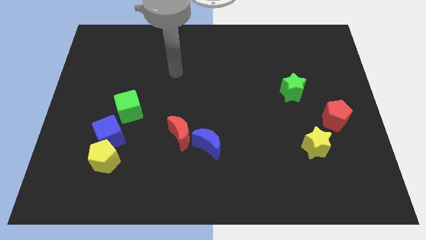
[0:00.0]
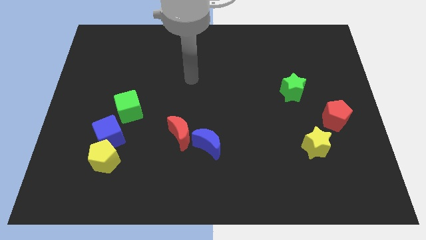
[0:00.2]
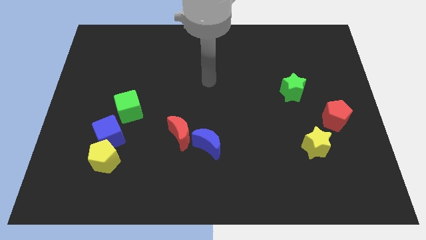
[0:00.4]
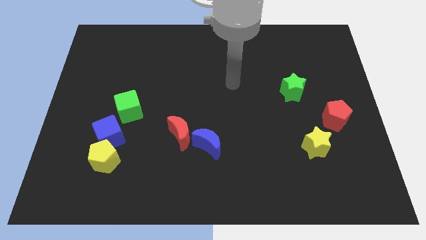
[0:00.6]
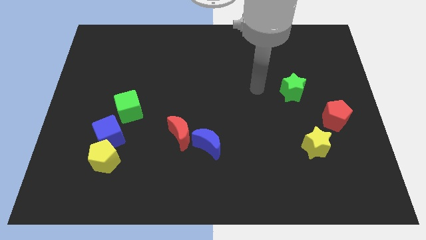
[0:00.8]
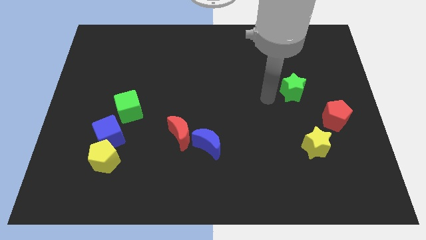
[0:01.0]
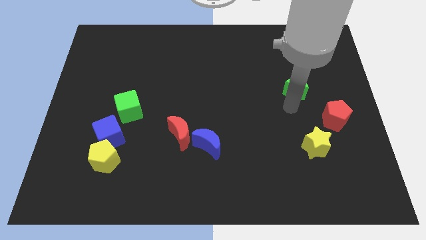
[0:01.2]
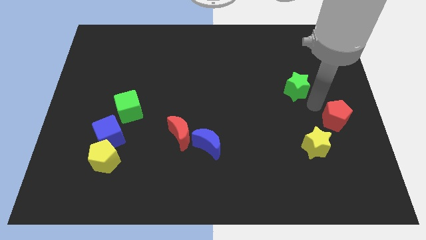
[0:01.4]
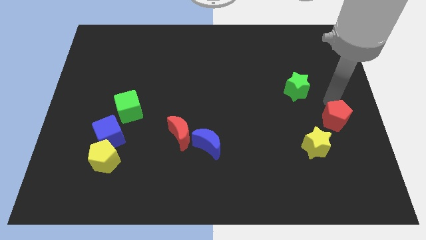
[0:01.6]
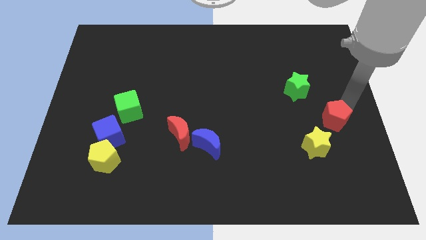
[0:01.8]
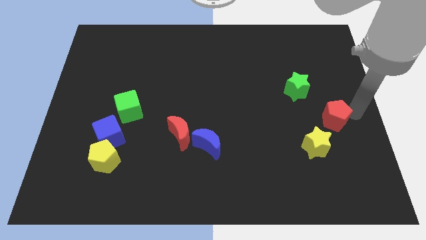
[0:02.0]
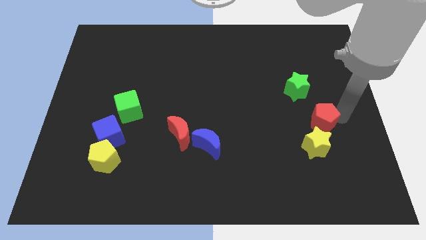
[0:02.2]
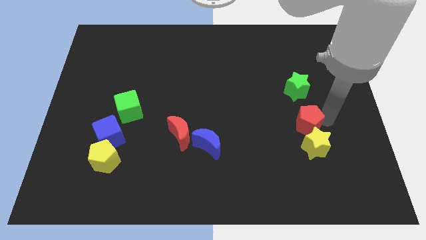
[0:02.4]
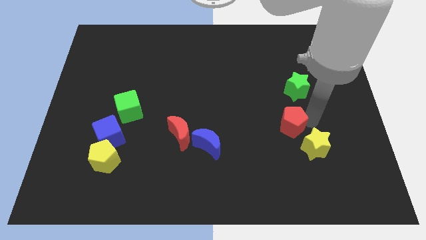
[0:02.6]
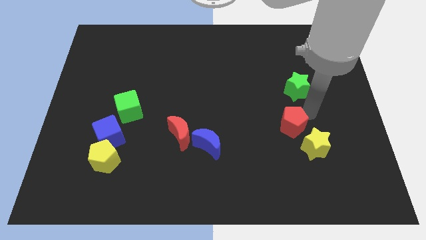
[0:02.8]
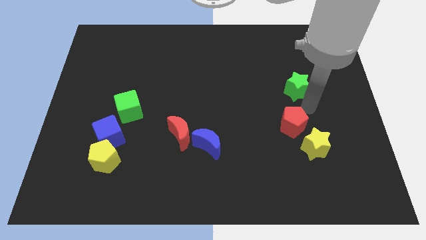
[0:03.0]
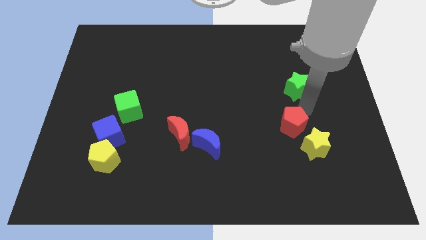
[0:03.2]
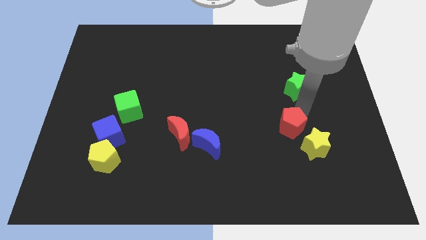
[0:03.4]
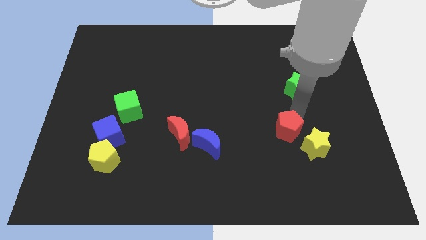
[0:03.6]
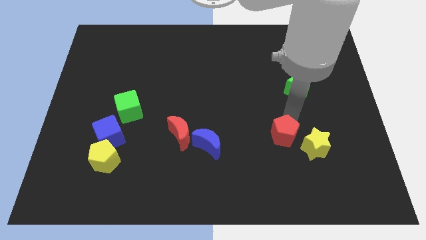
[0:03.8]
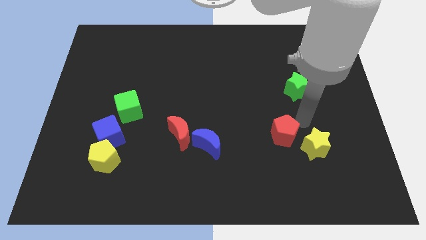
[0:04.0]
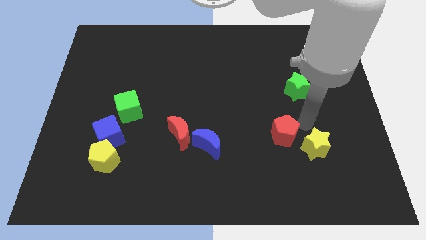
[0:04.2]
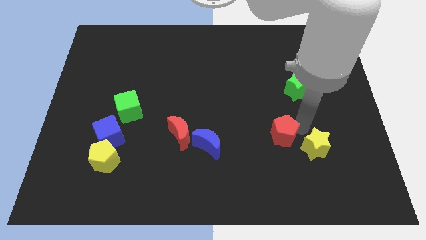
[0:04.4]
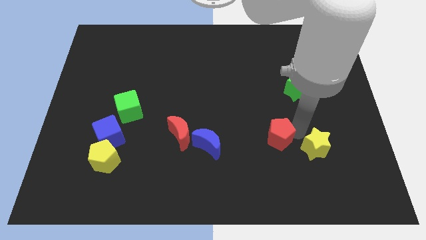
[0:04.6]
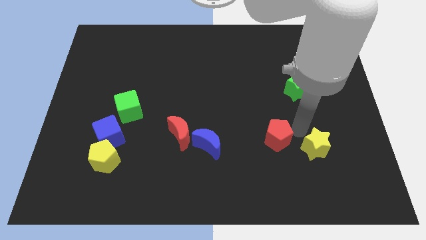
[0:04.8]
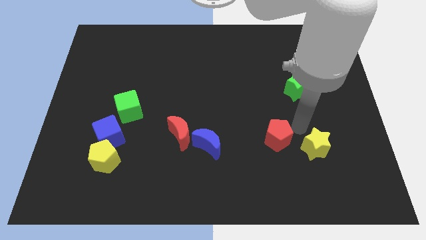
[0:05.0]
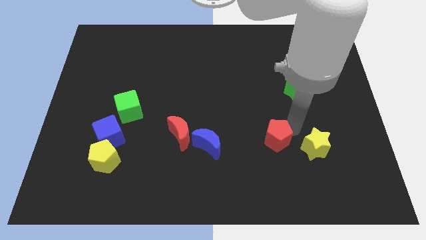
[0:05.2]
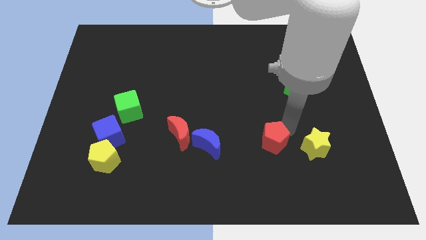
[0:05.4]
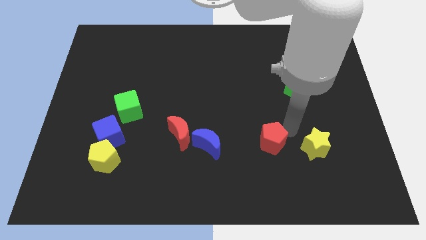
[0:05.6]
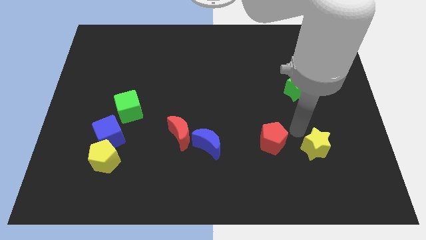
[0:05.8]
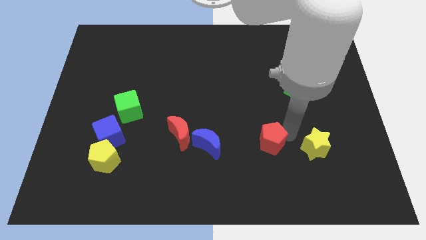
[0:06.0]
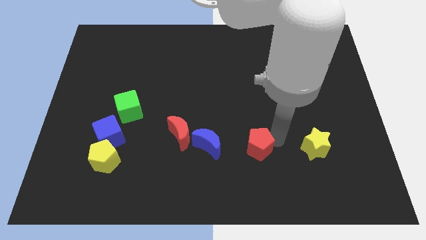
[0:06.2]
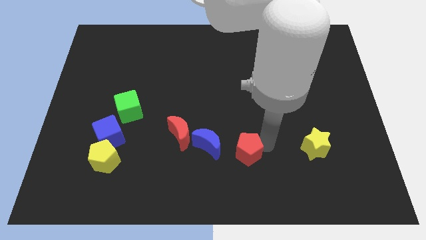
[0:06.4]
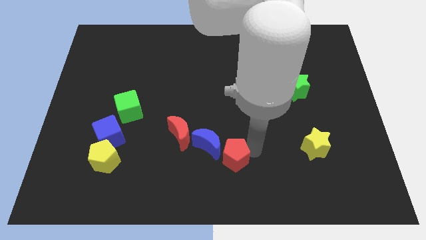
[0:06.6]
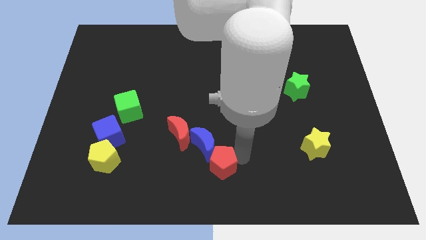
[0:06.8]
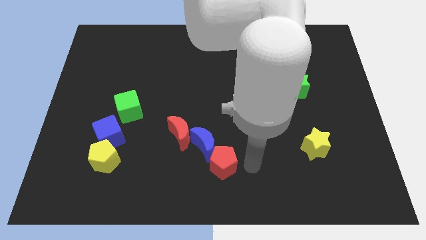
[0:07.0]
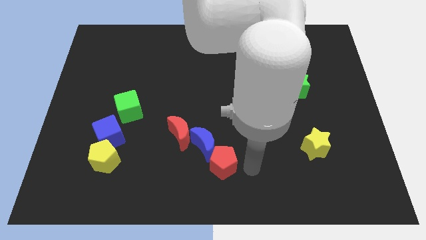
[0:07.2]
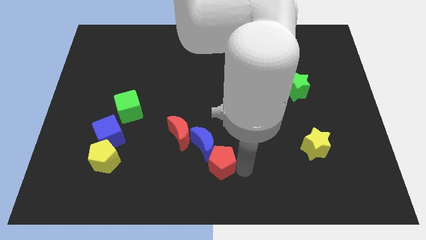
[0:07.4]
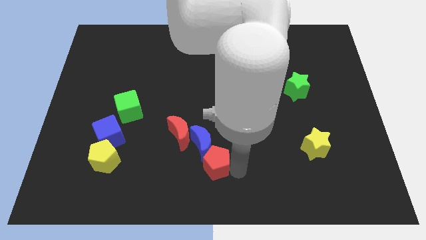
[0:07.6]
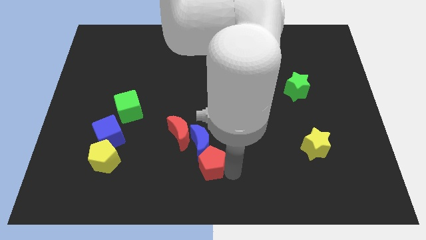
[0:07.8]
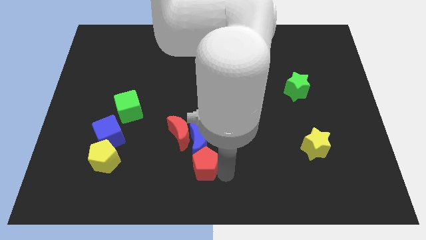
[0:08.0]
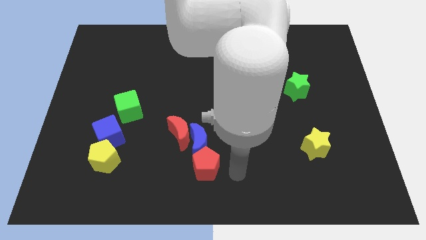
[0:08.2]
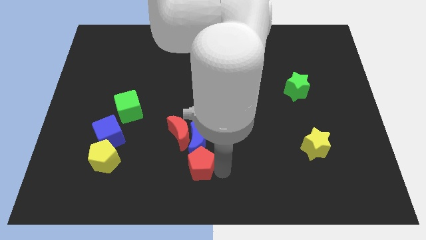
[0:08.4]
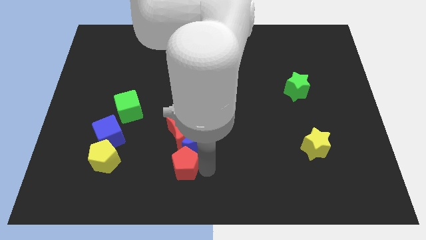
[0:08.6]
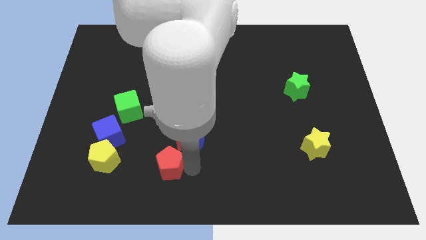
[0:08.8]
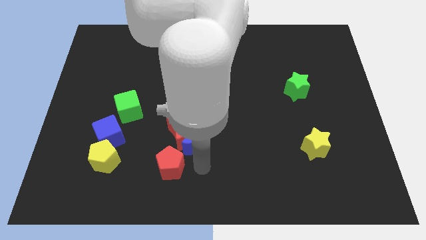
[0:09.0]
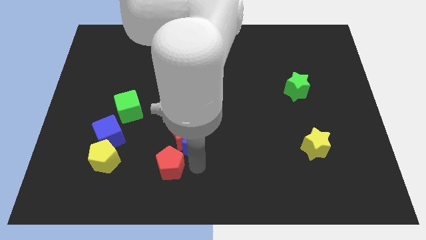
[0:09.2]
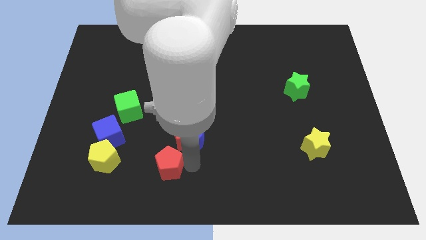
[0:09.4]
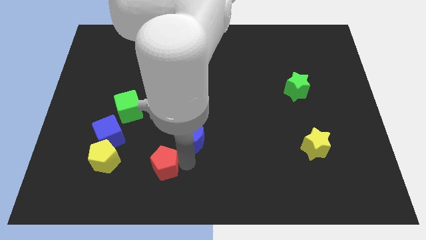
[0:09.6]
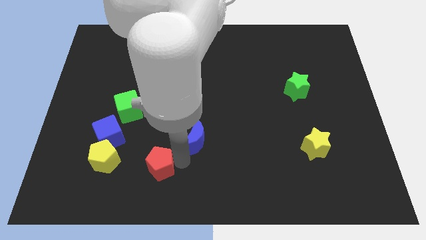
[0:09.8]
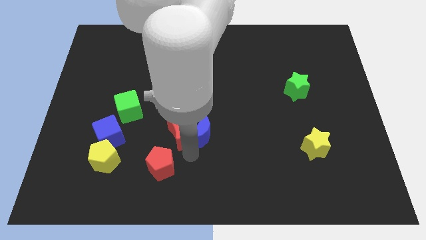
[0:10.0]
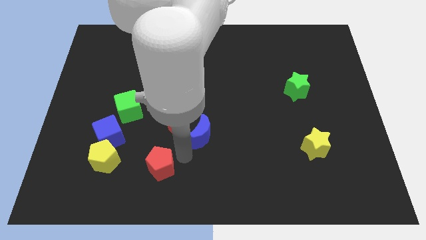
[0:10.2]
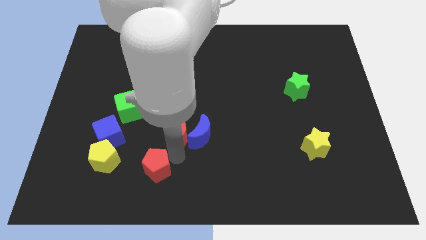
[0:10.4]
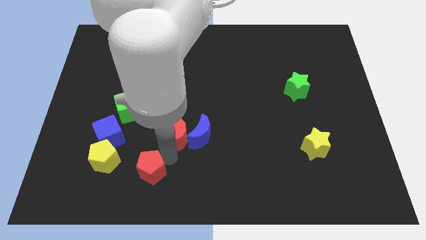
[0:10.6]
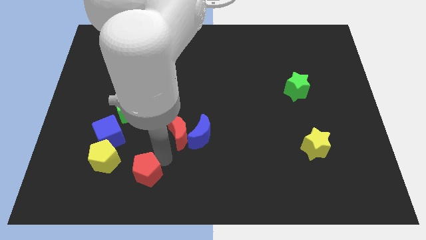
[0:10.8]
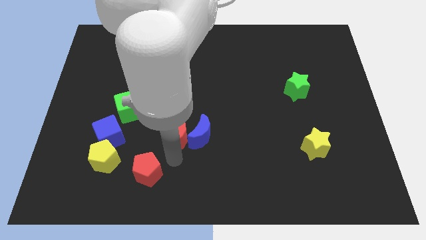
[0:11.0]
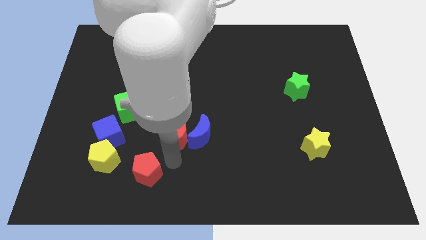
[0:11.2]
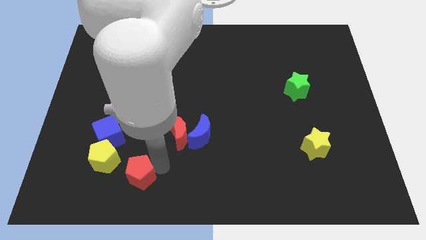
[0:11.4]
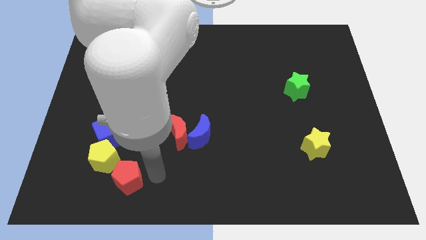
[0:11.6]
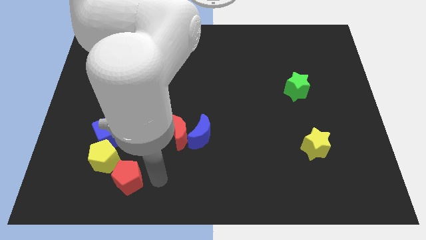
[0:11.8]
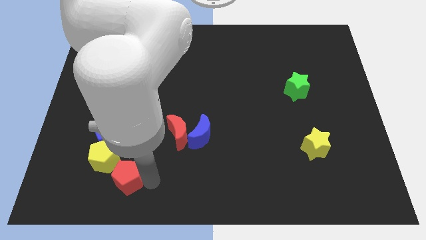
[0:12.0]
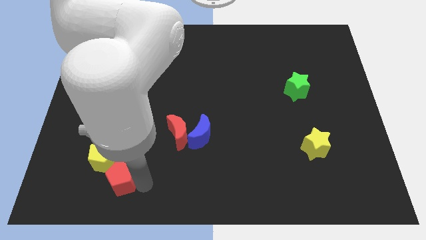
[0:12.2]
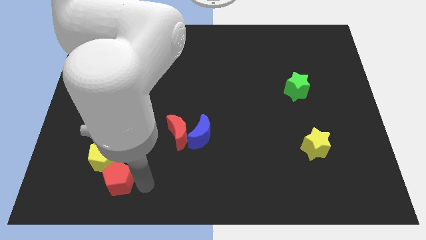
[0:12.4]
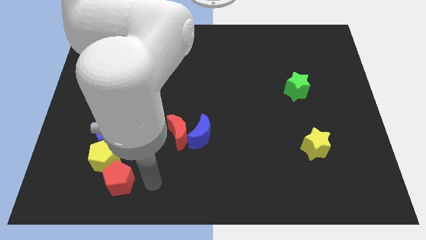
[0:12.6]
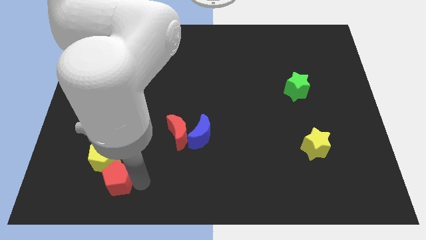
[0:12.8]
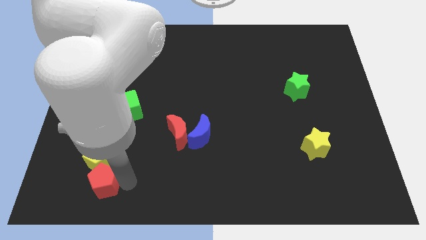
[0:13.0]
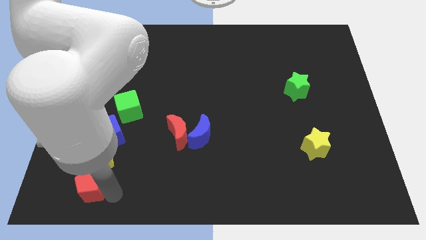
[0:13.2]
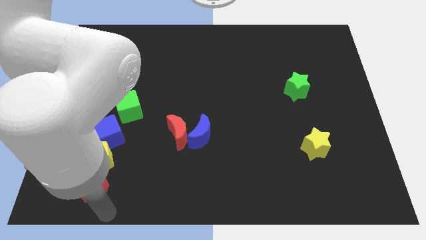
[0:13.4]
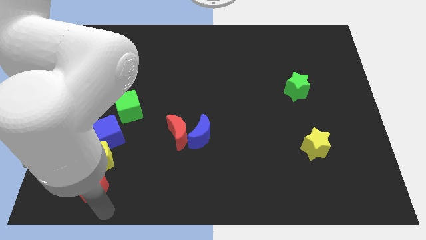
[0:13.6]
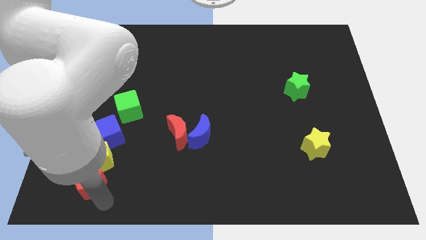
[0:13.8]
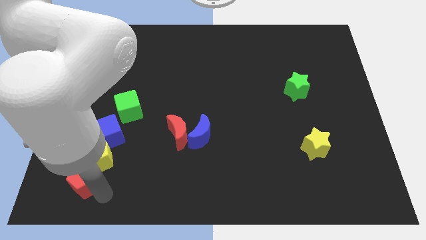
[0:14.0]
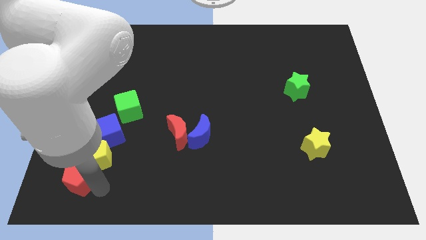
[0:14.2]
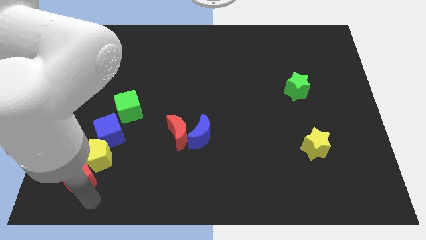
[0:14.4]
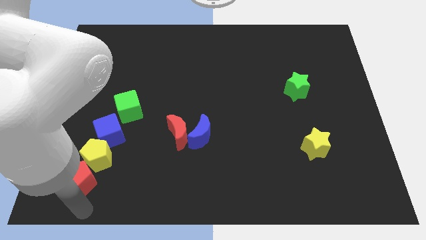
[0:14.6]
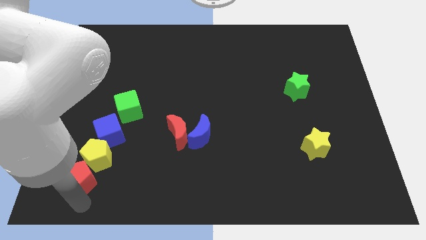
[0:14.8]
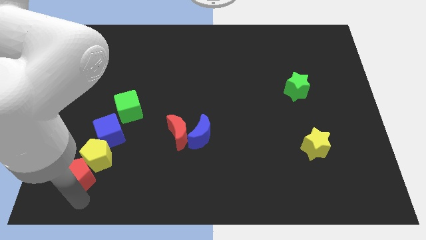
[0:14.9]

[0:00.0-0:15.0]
move the red pentagon to the bottom left of the blue cube
